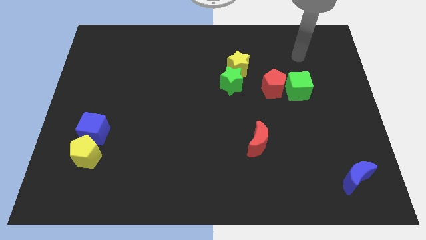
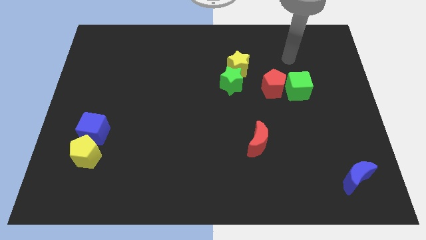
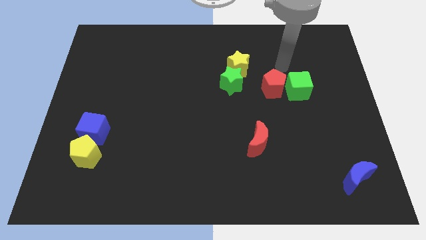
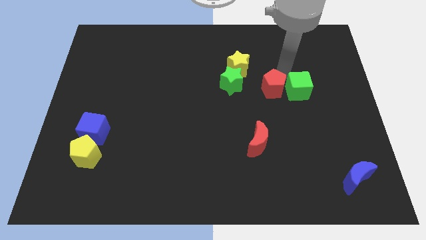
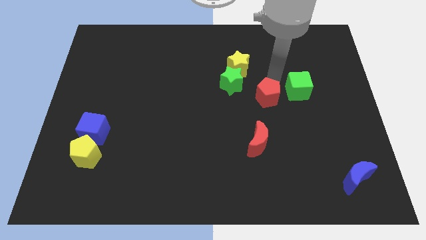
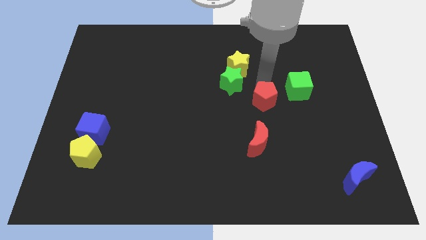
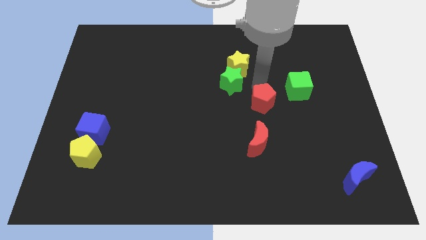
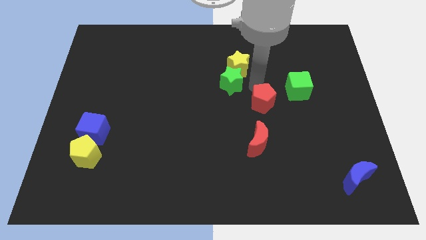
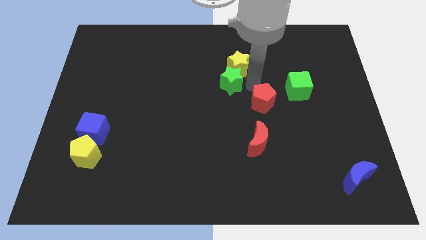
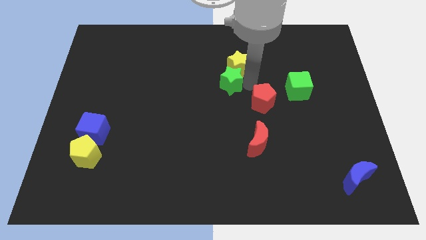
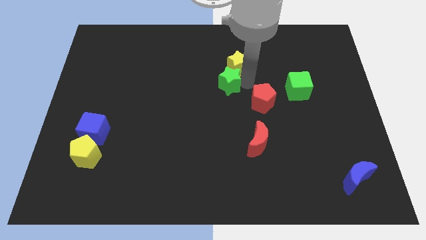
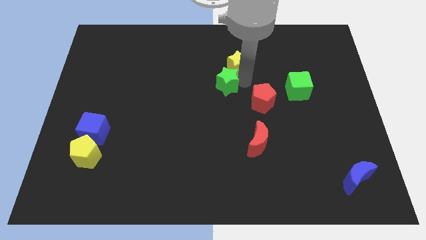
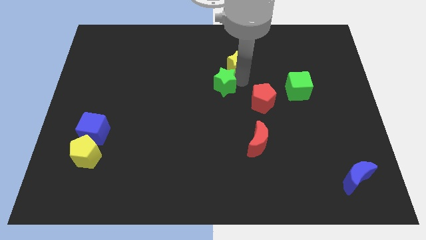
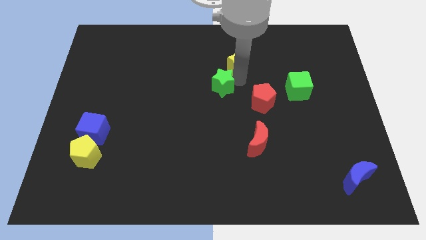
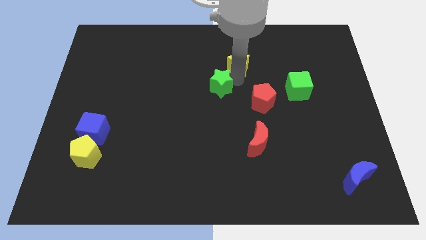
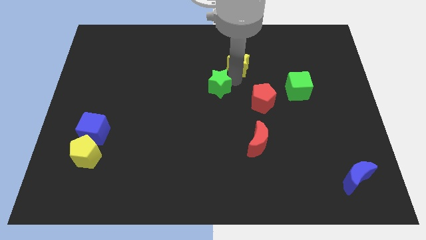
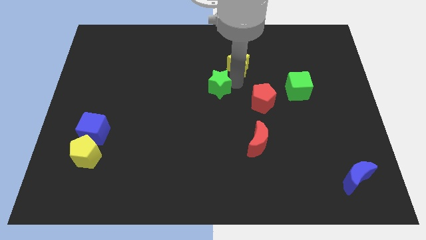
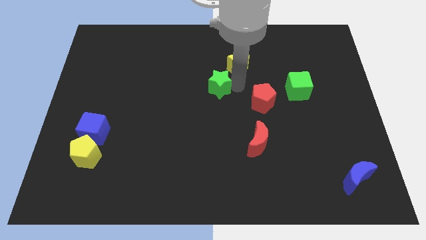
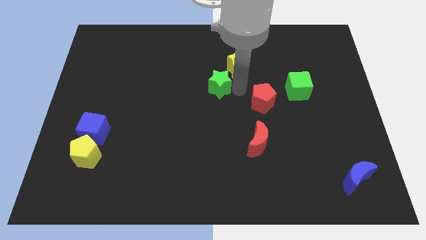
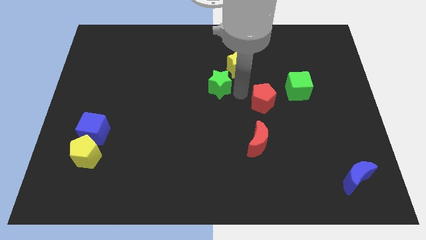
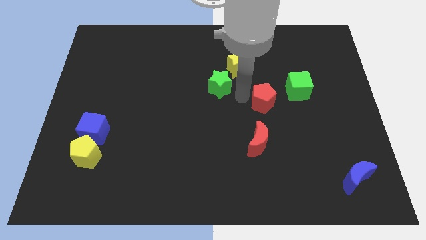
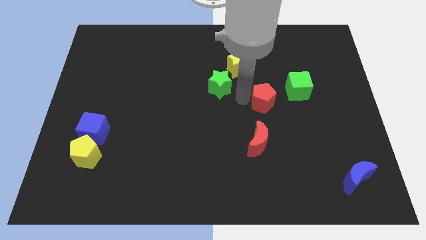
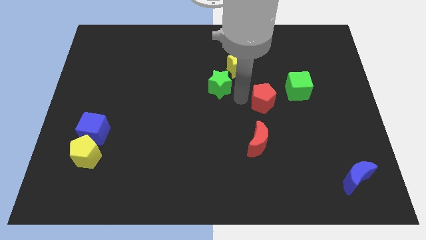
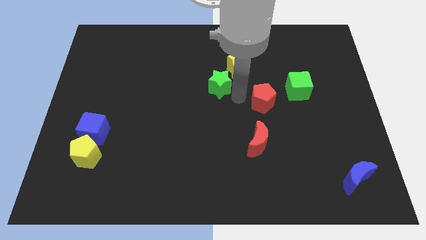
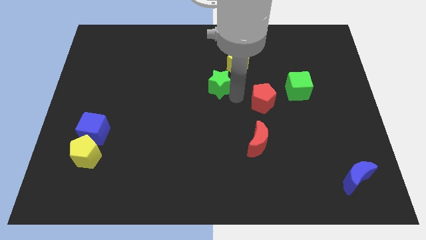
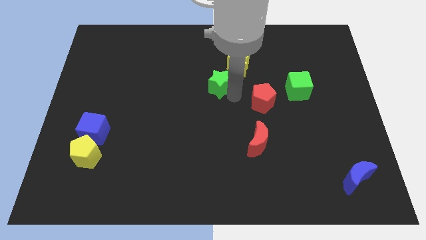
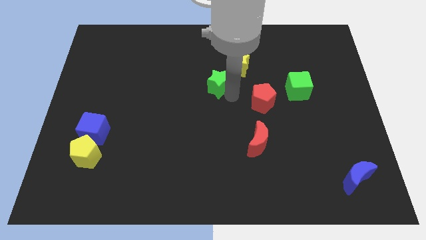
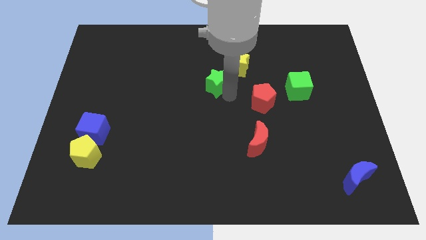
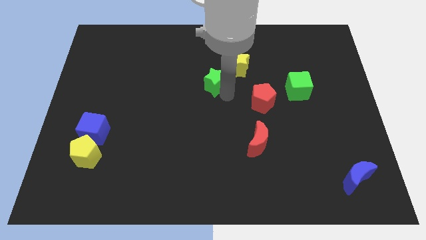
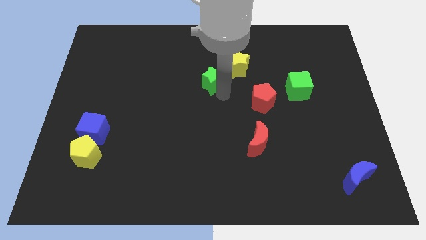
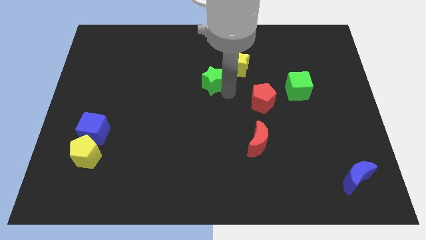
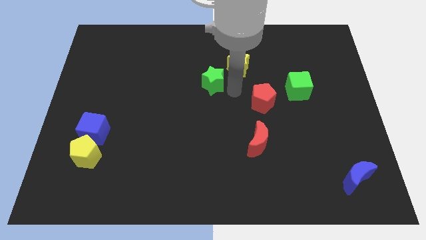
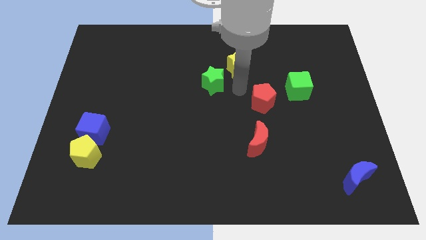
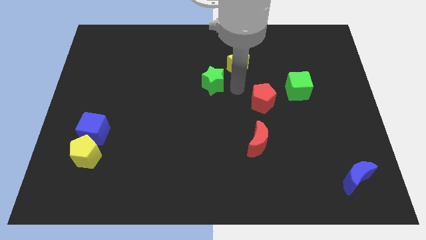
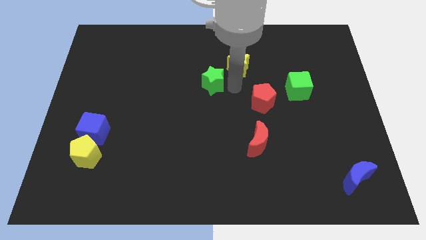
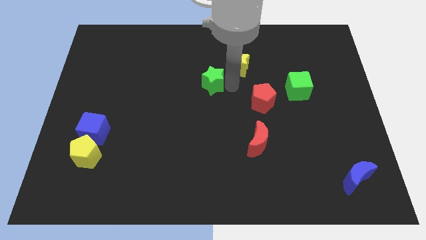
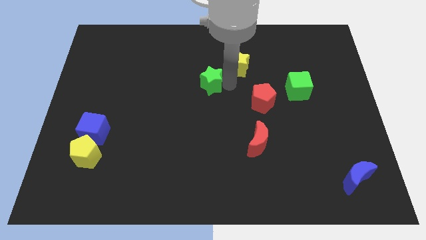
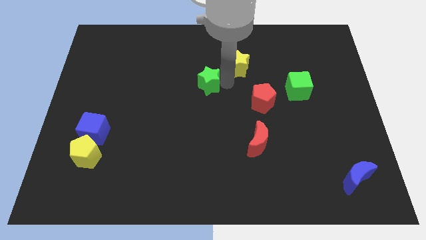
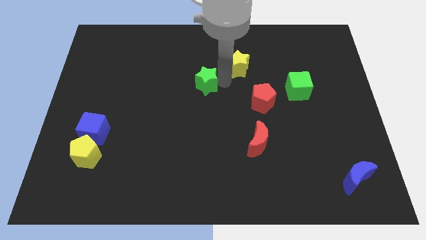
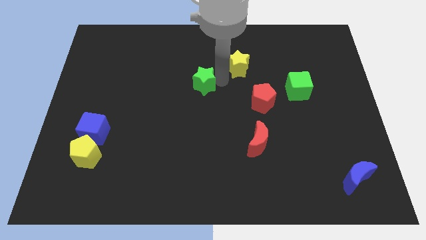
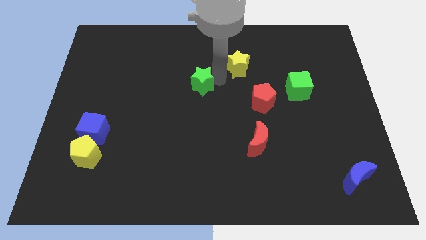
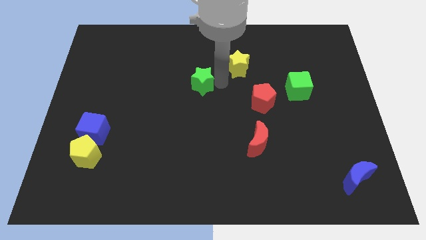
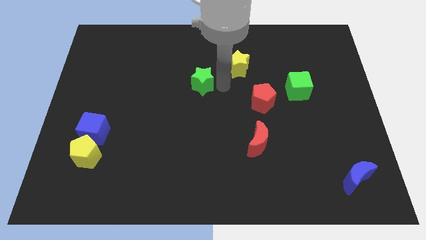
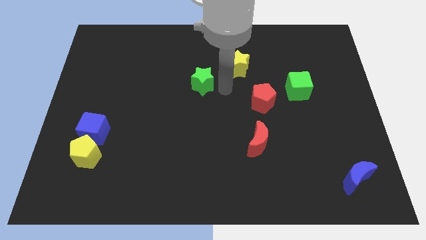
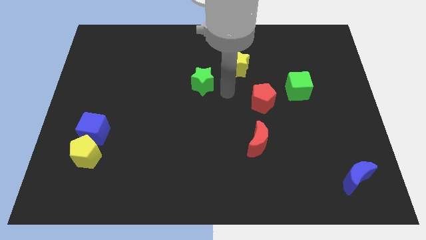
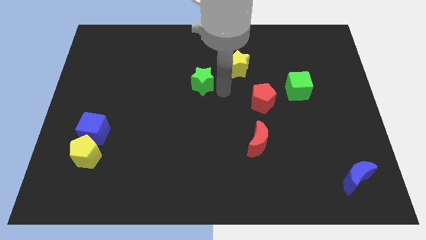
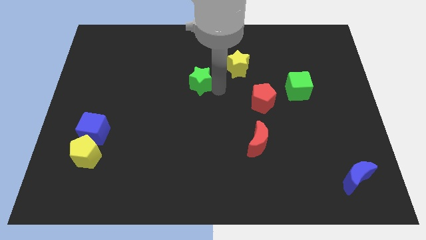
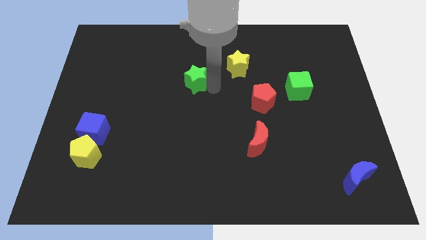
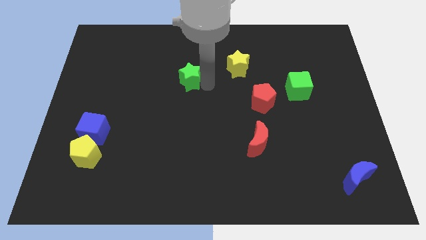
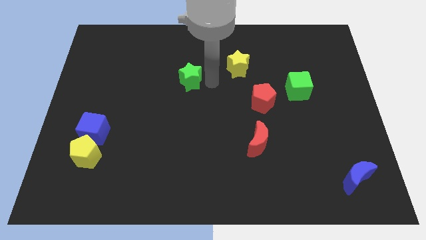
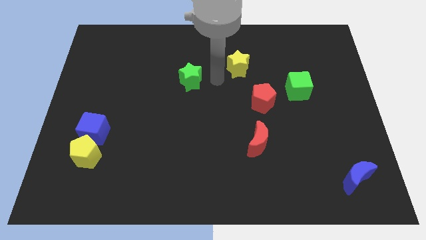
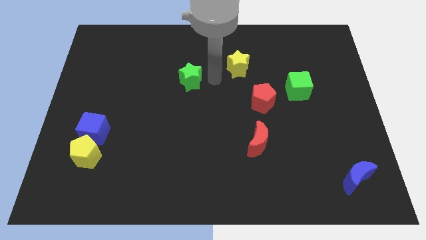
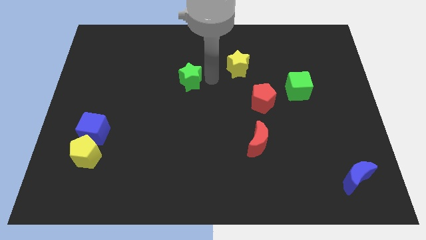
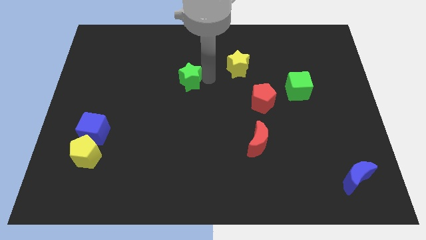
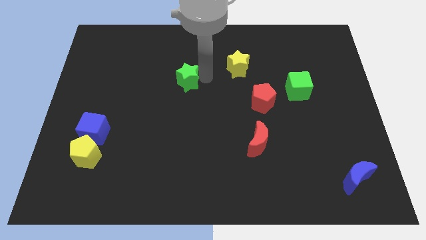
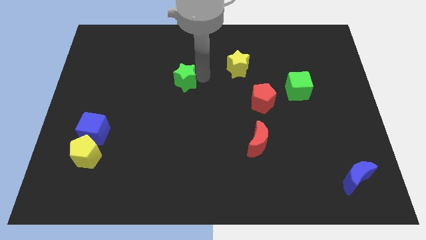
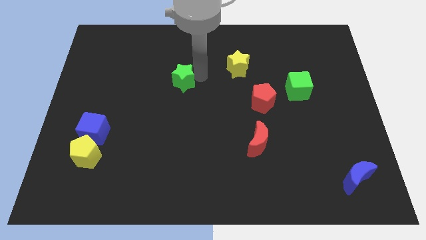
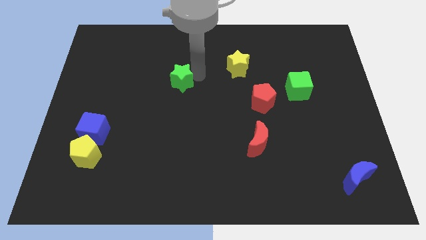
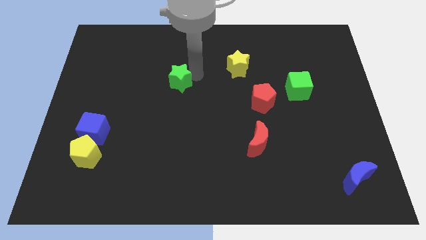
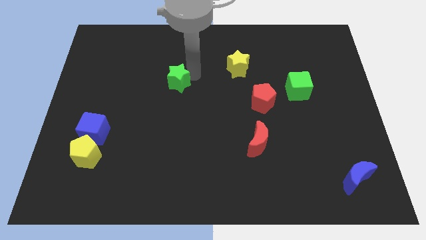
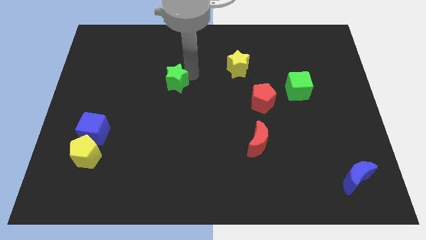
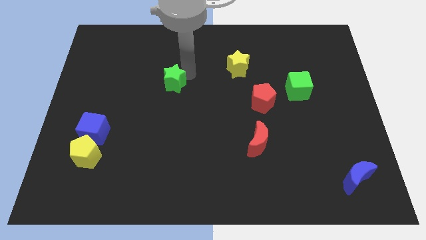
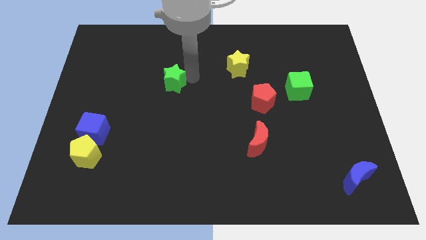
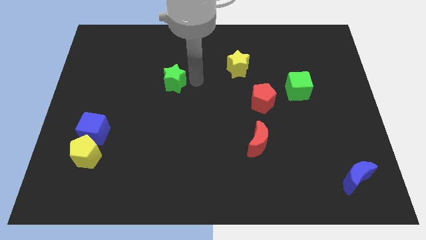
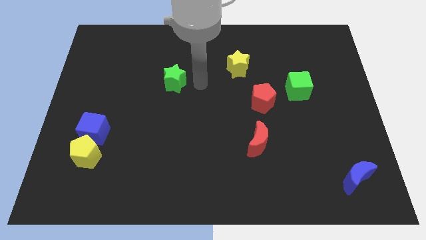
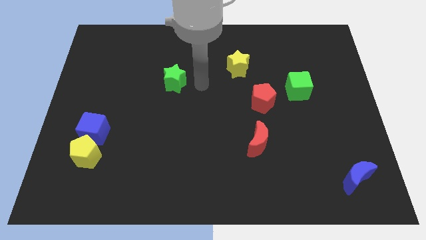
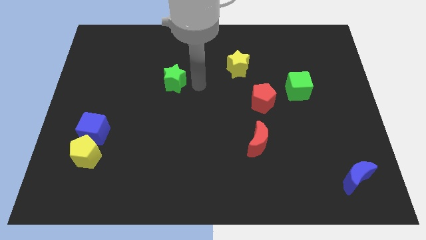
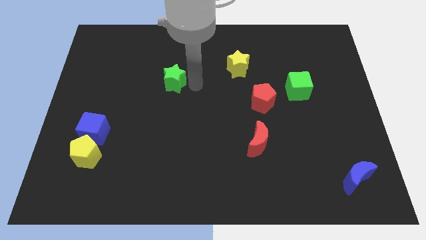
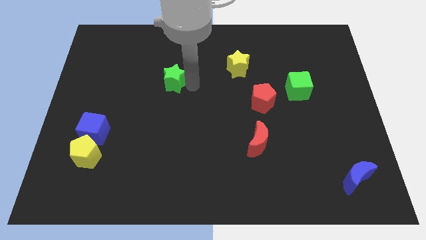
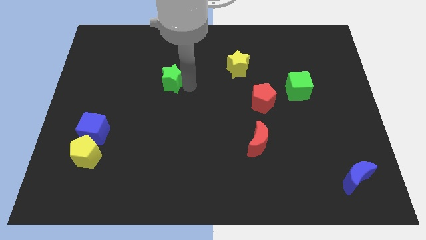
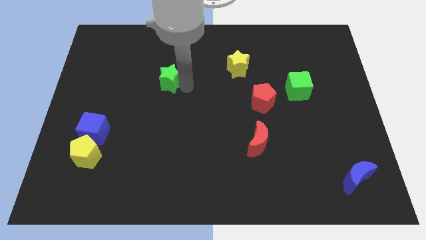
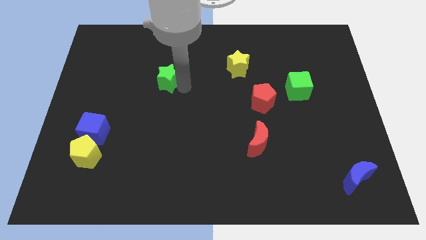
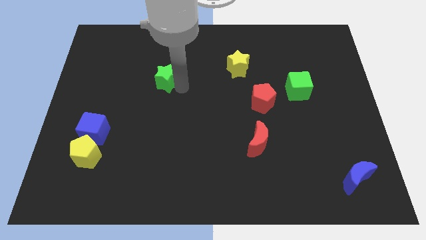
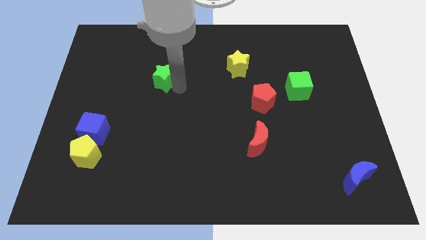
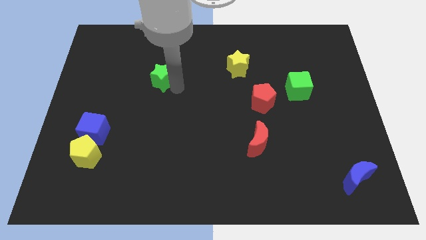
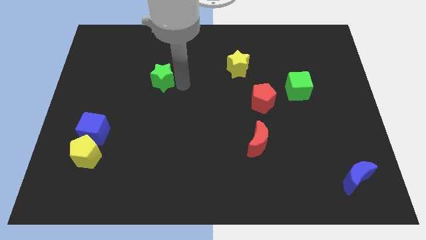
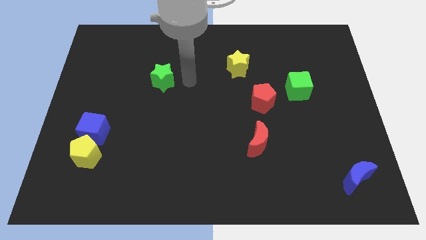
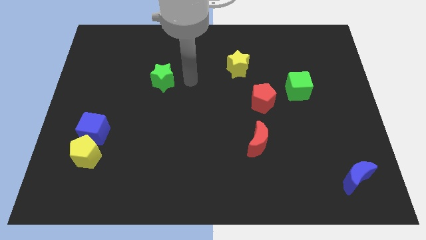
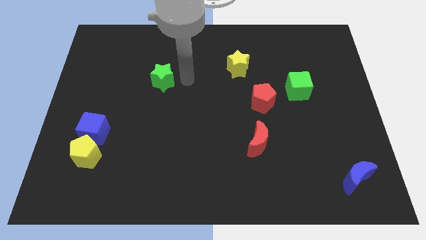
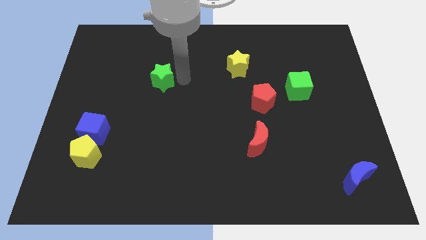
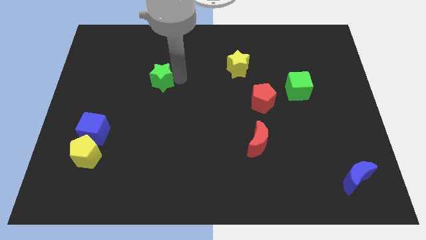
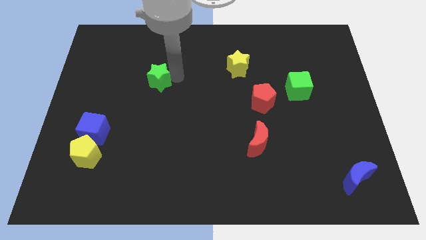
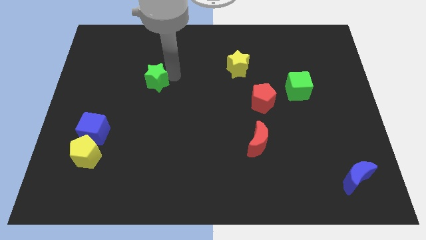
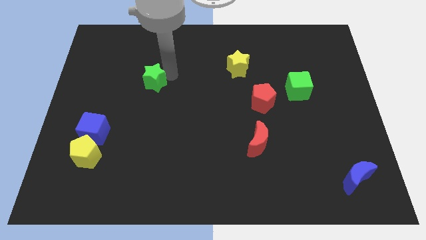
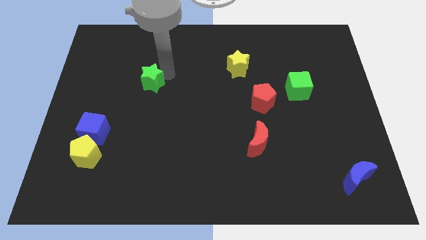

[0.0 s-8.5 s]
slide the green star left
